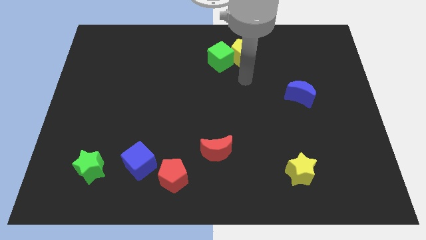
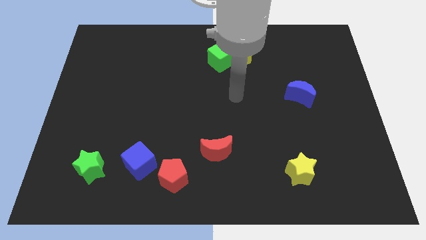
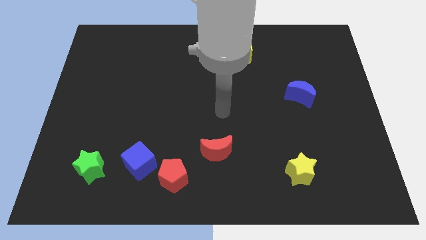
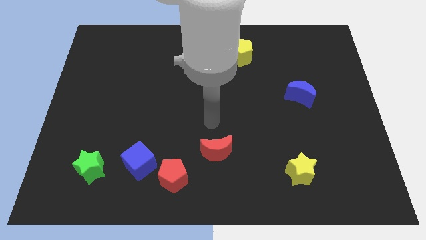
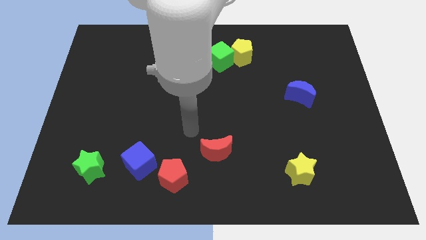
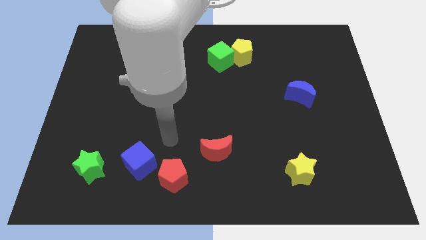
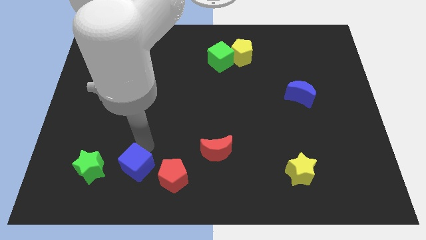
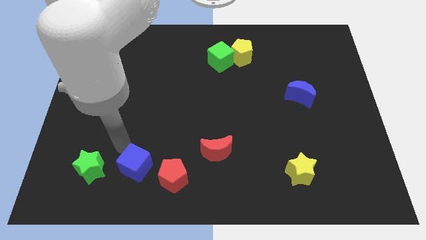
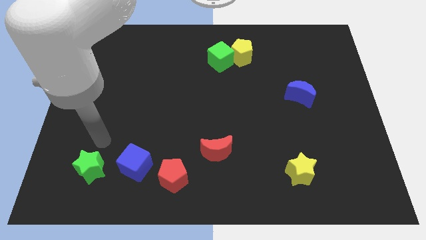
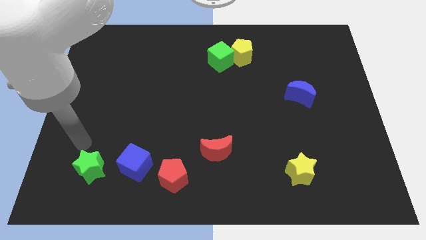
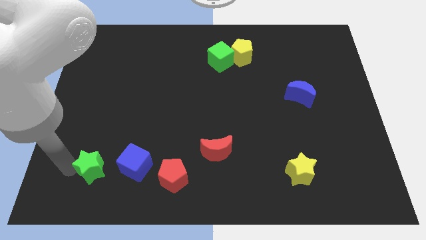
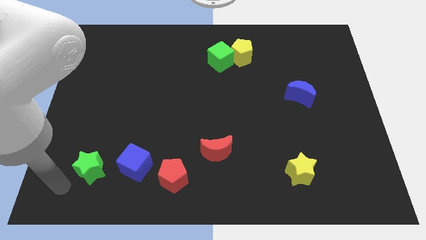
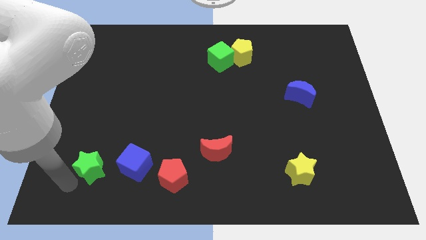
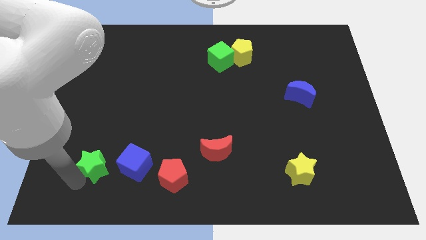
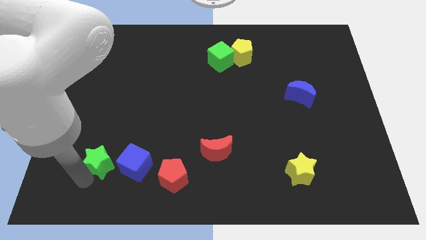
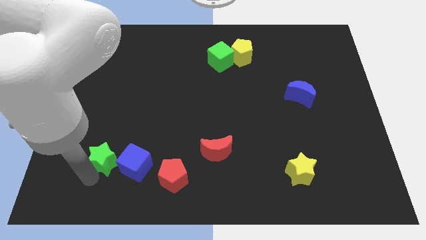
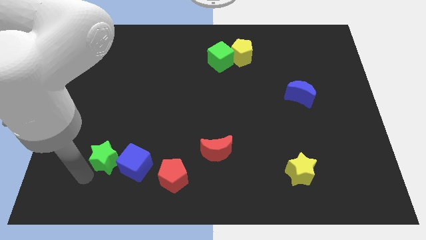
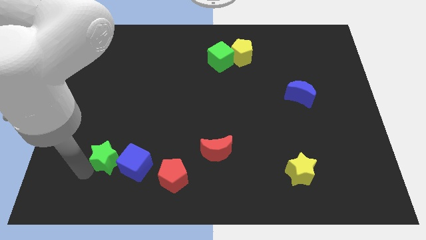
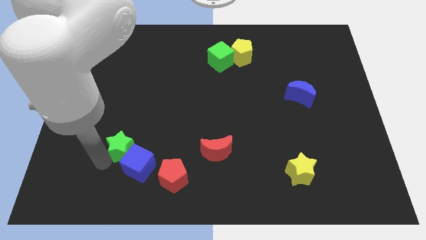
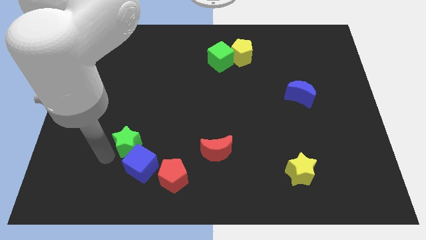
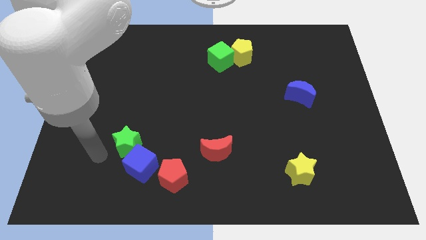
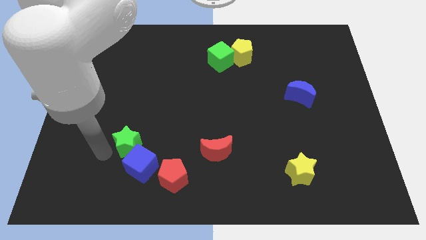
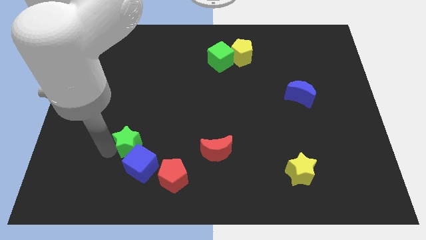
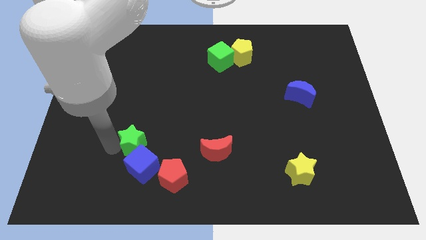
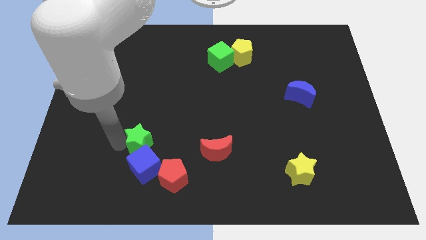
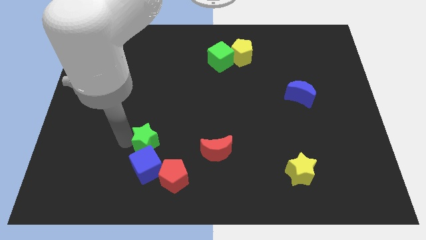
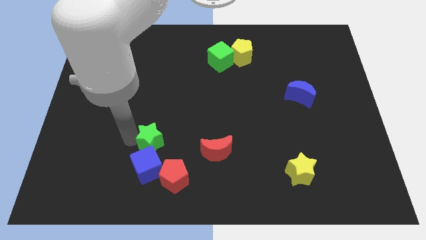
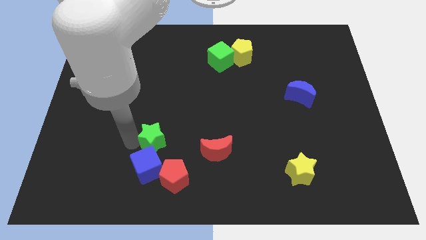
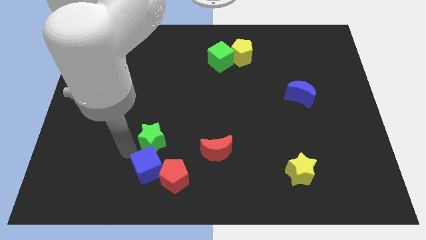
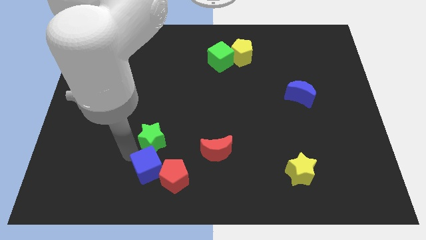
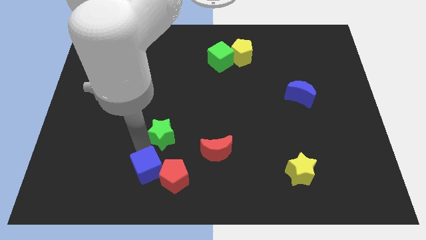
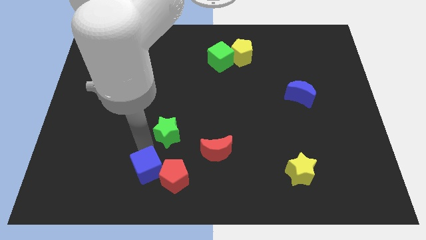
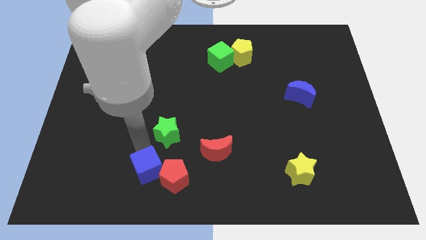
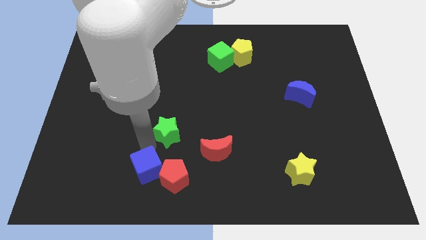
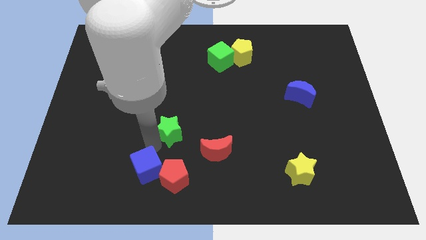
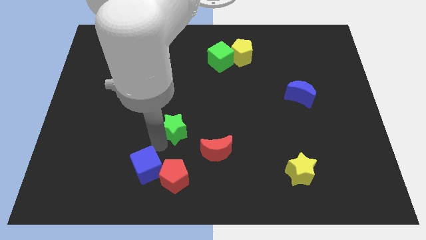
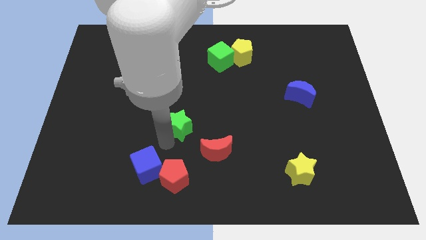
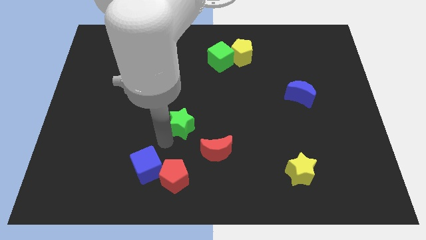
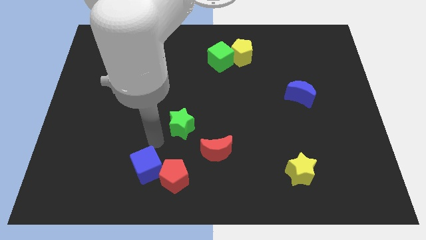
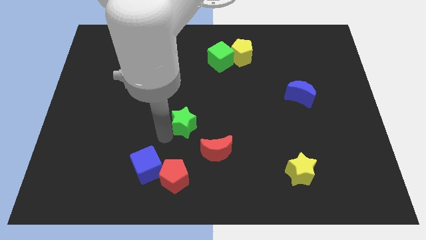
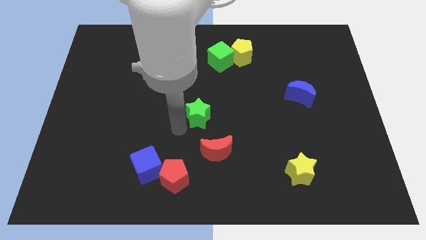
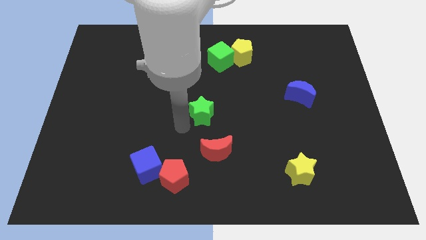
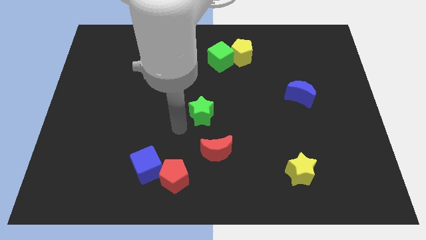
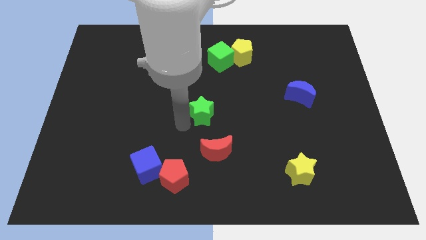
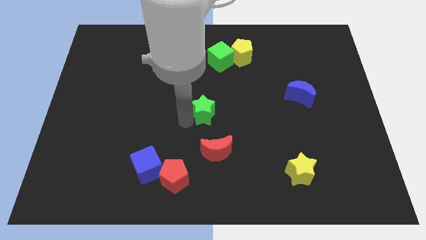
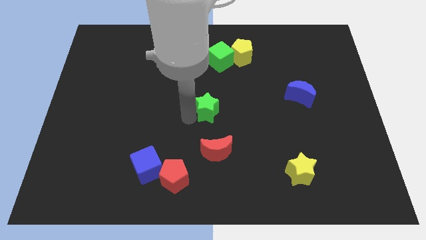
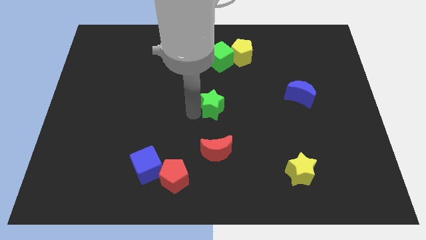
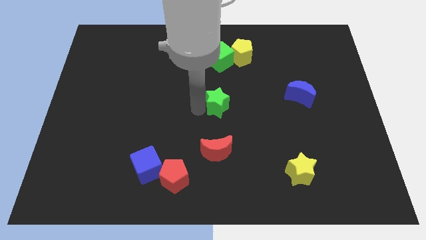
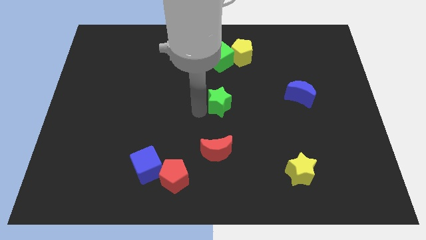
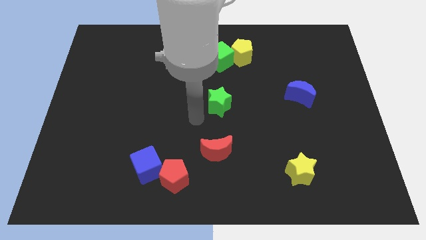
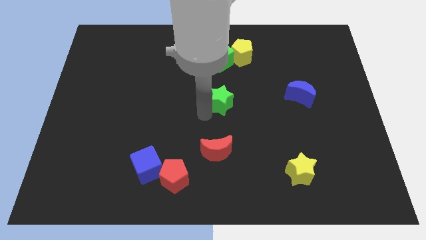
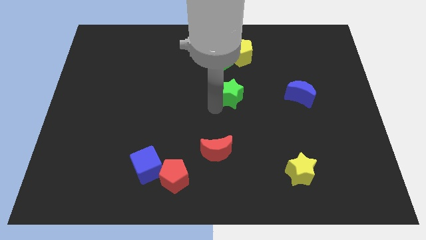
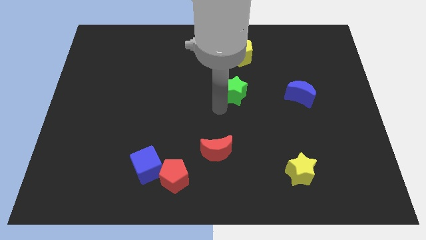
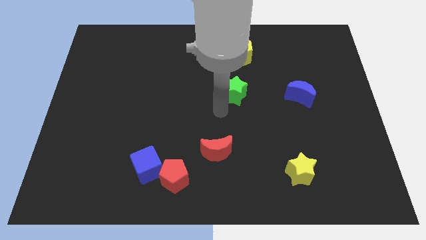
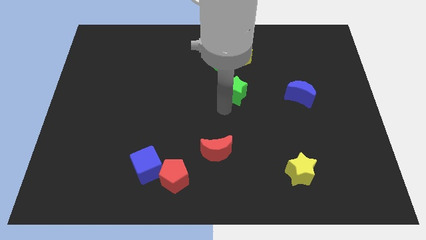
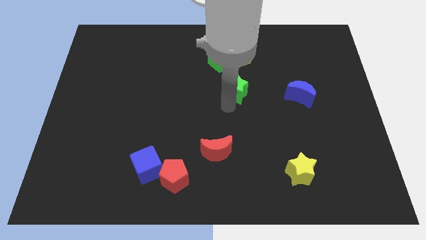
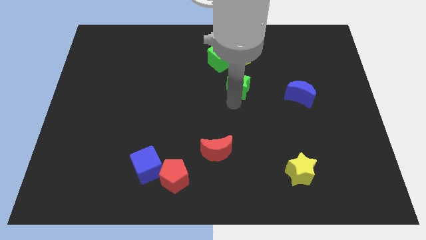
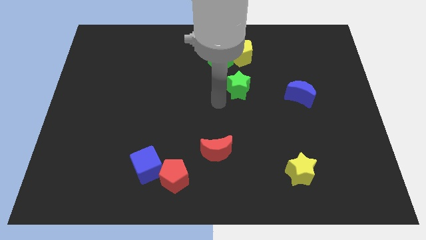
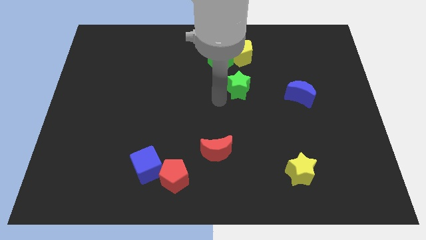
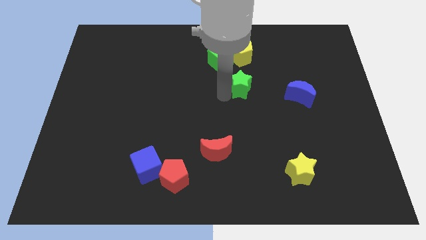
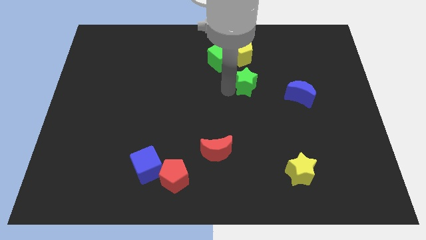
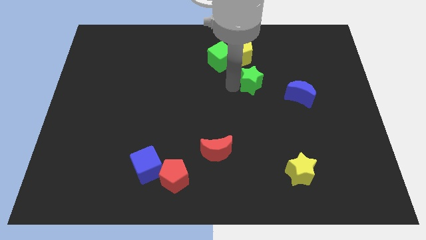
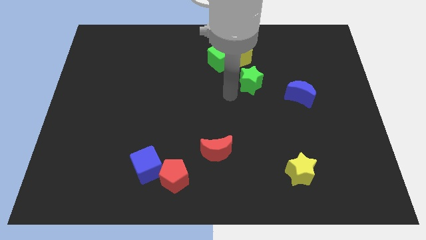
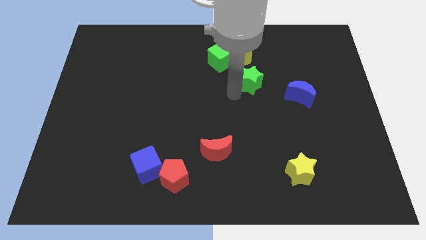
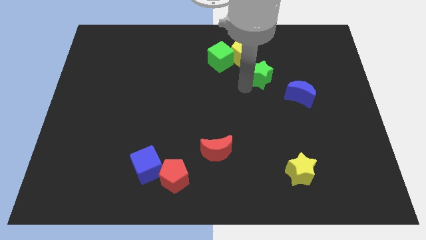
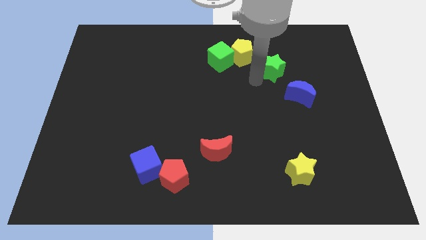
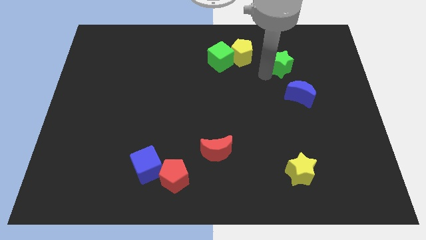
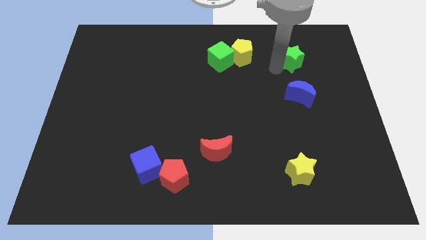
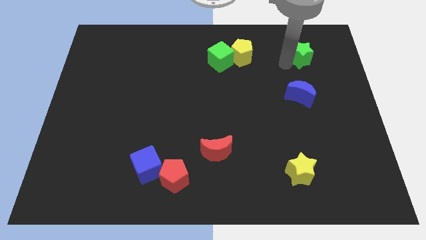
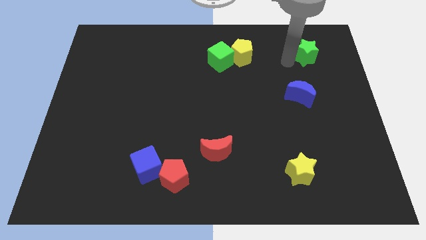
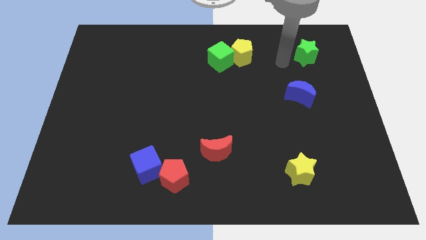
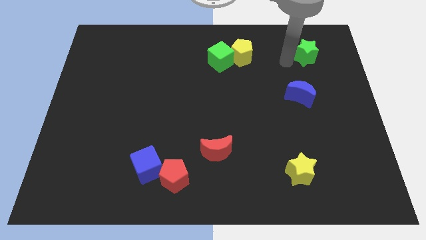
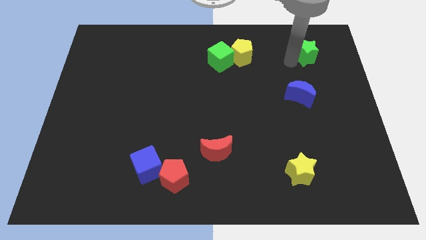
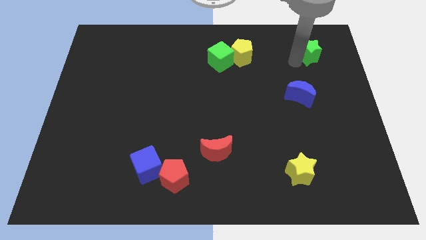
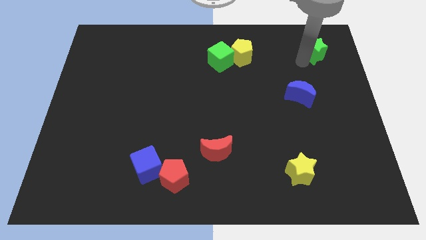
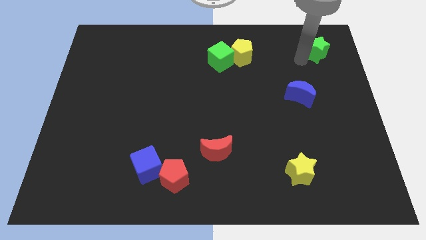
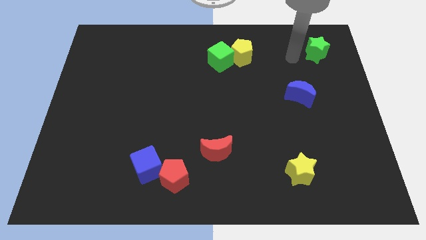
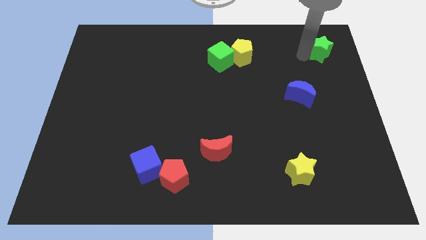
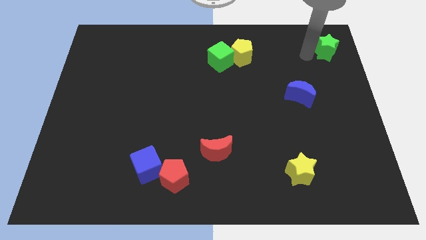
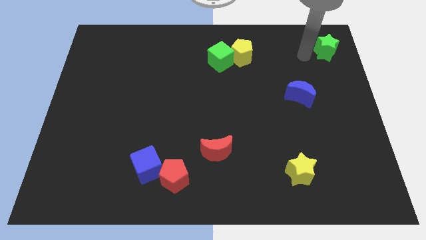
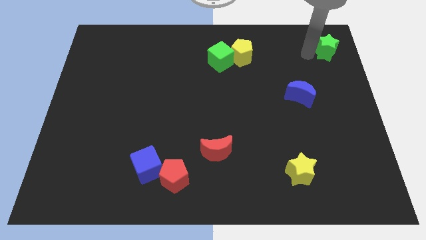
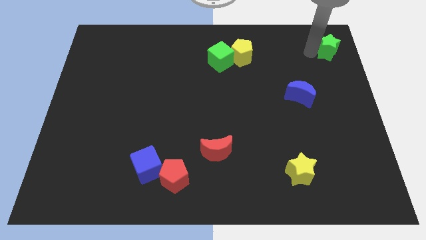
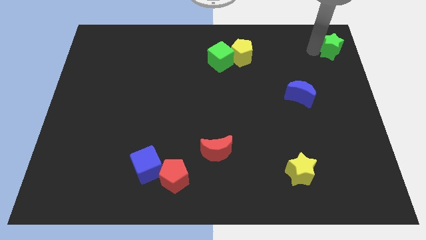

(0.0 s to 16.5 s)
move the green star to the top right of the board
